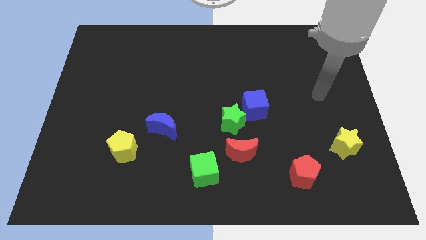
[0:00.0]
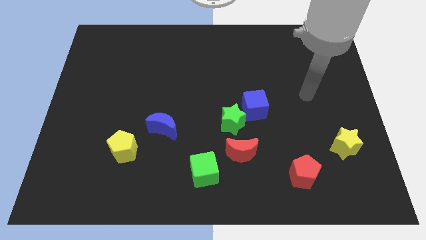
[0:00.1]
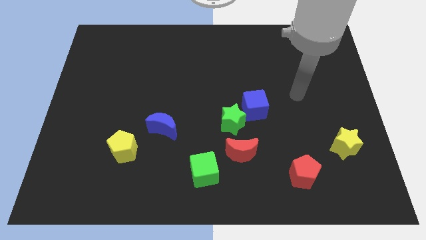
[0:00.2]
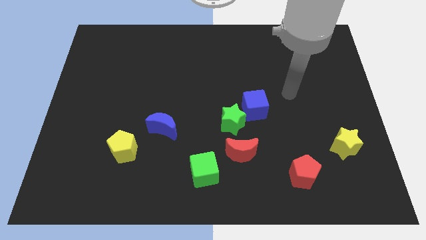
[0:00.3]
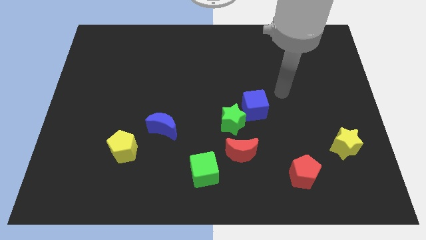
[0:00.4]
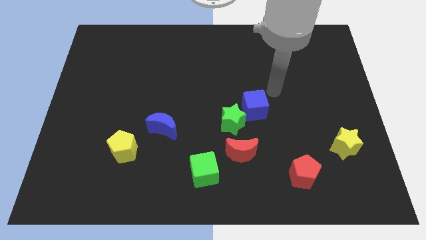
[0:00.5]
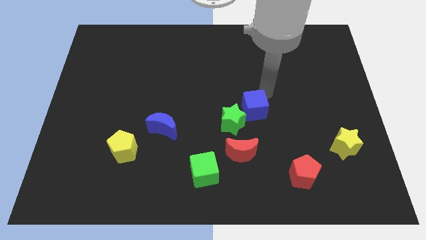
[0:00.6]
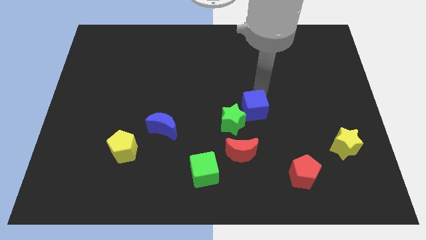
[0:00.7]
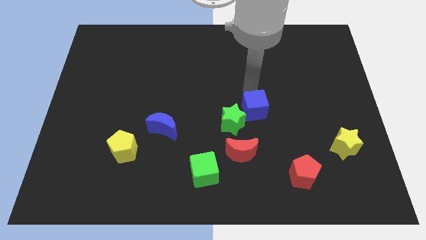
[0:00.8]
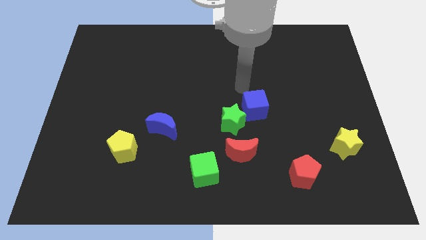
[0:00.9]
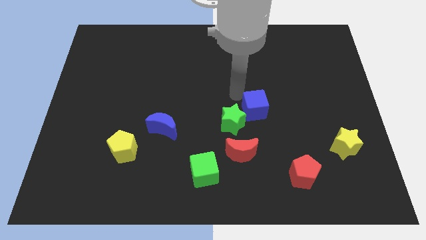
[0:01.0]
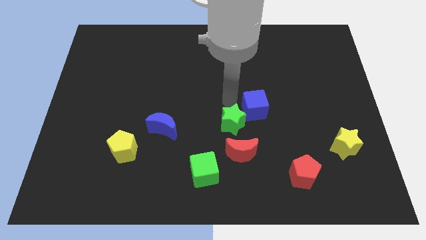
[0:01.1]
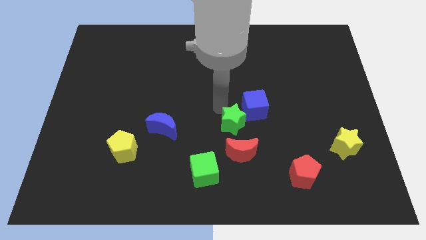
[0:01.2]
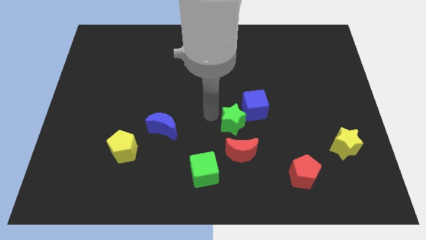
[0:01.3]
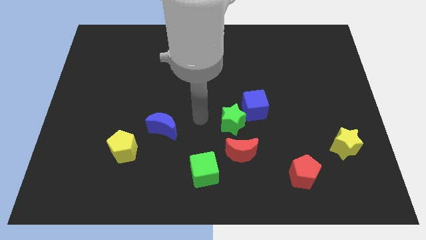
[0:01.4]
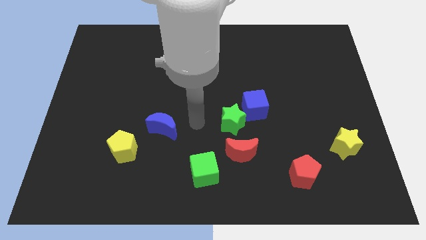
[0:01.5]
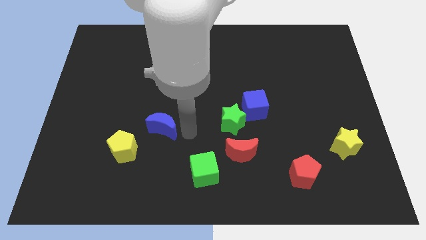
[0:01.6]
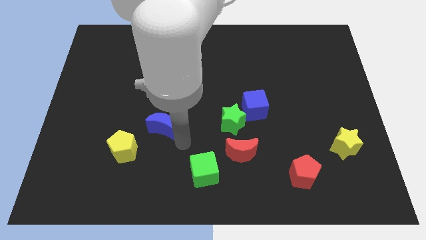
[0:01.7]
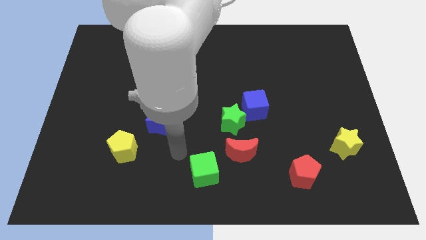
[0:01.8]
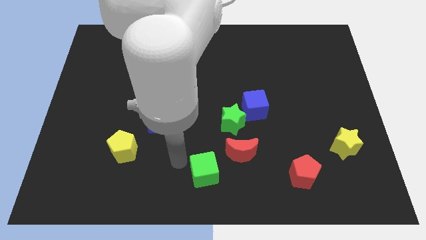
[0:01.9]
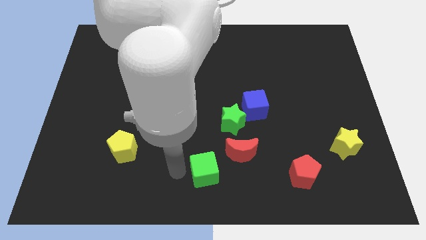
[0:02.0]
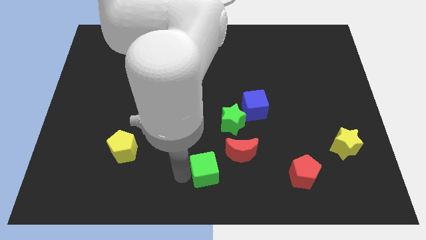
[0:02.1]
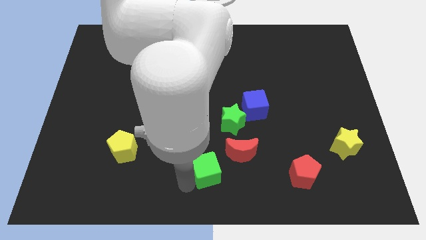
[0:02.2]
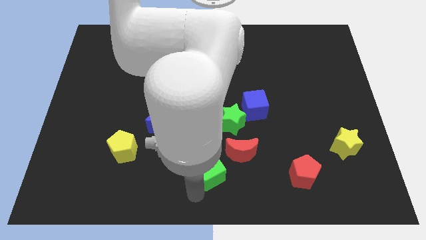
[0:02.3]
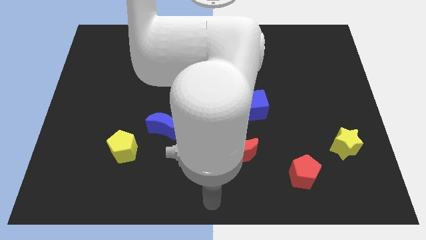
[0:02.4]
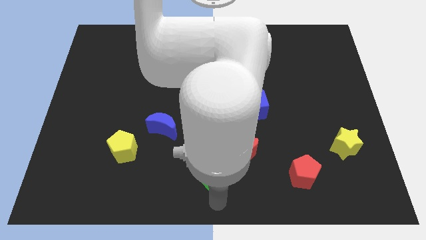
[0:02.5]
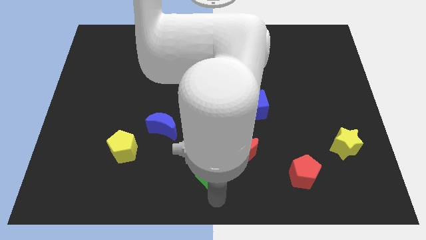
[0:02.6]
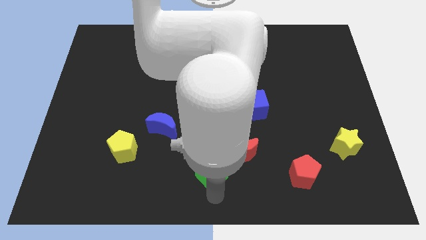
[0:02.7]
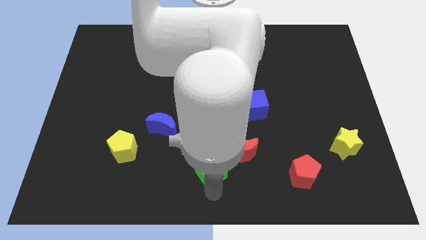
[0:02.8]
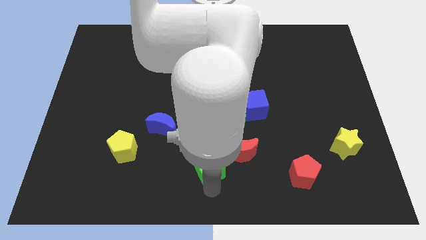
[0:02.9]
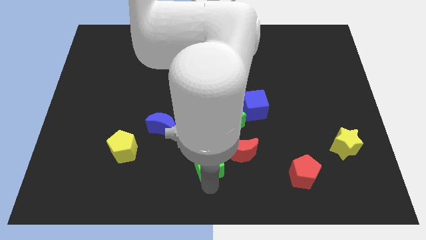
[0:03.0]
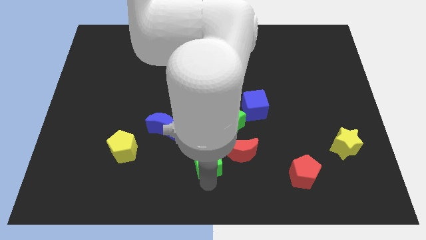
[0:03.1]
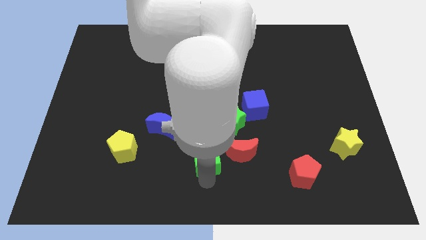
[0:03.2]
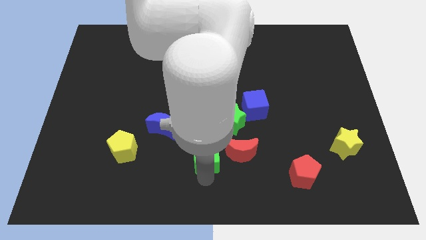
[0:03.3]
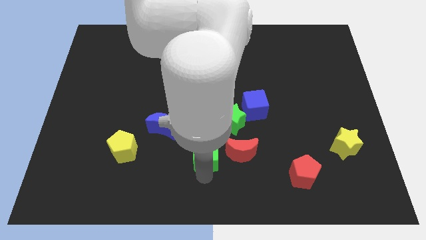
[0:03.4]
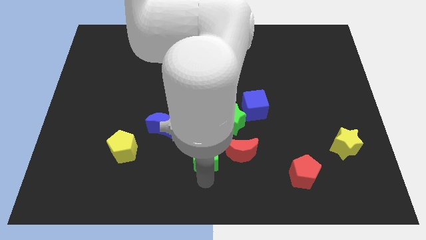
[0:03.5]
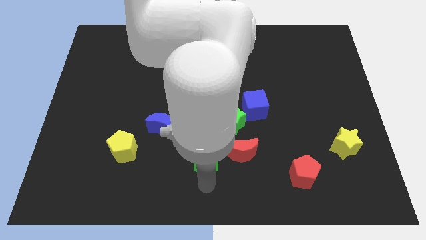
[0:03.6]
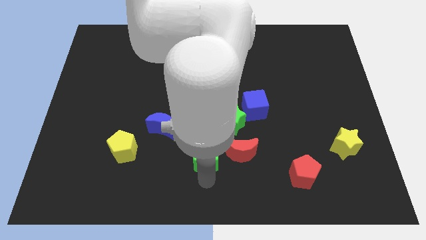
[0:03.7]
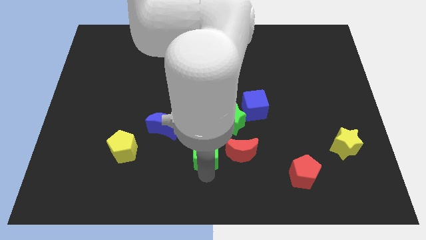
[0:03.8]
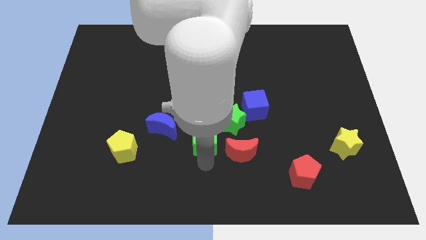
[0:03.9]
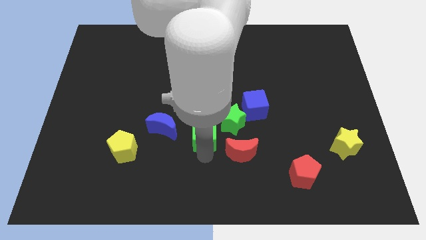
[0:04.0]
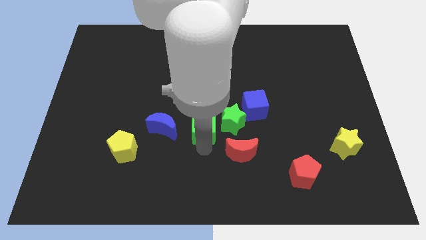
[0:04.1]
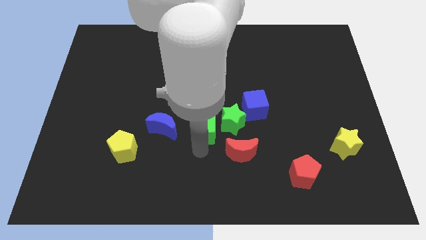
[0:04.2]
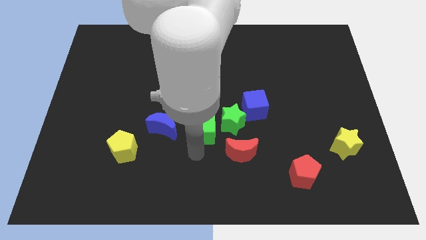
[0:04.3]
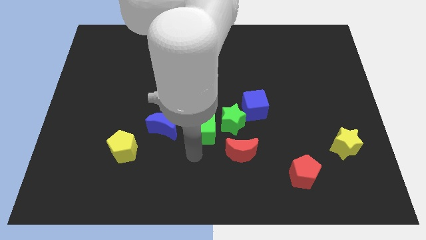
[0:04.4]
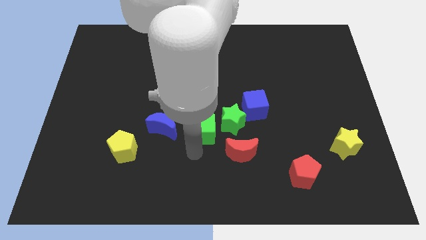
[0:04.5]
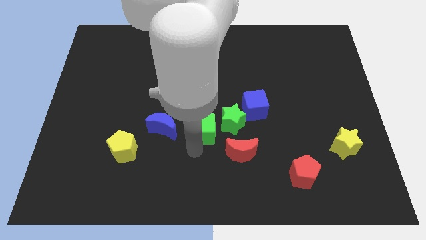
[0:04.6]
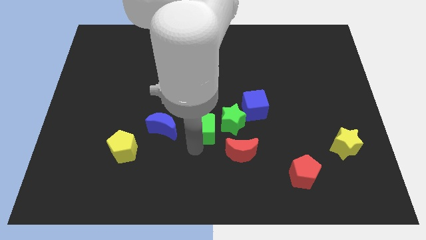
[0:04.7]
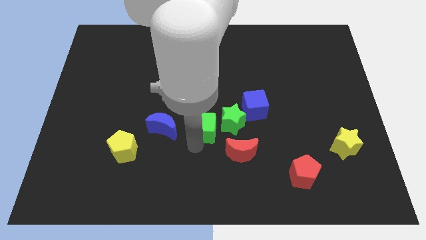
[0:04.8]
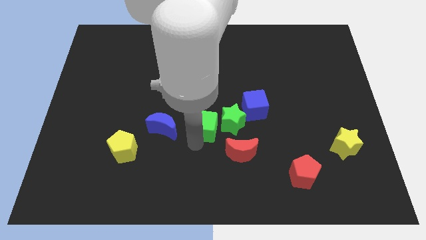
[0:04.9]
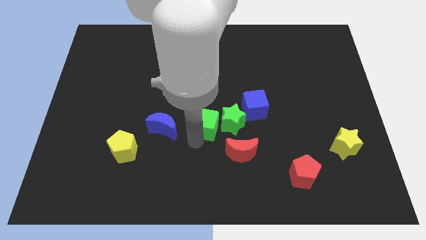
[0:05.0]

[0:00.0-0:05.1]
push the green cube diagonally up and to the left of the green star

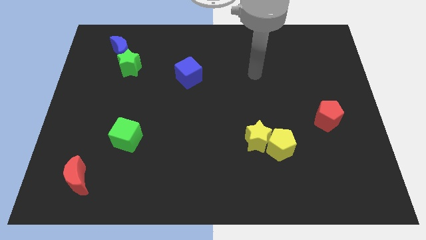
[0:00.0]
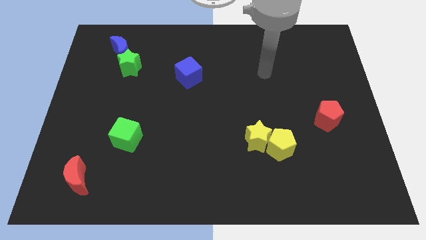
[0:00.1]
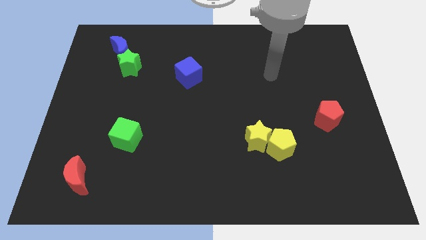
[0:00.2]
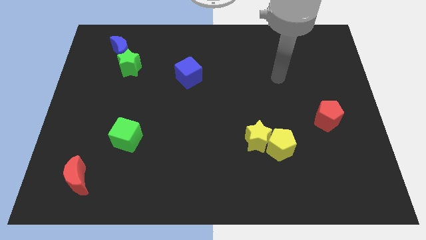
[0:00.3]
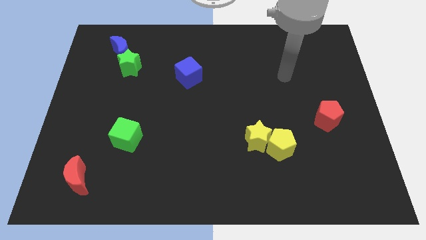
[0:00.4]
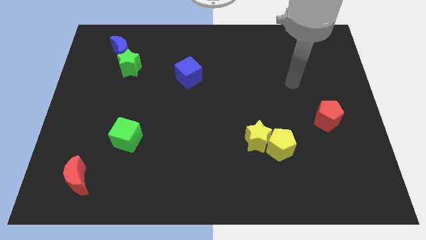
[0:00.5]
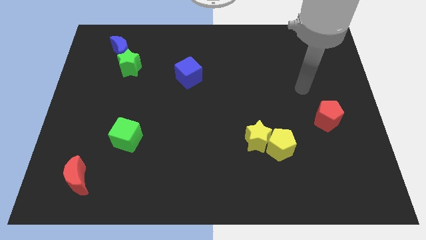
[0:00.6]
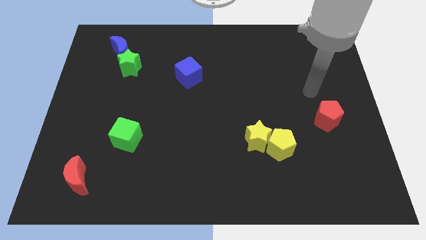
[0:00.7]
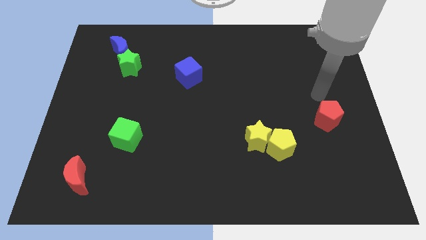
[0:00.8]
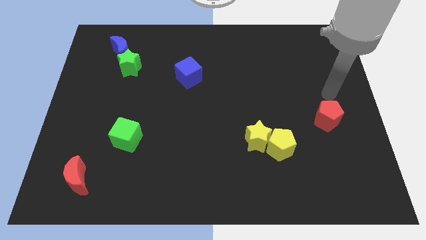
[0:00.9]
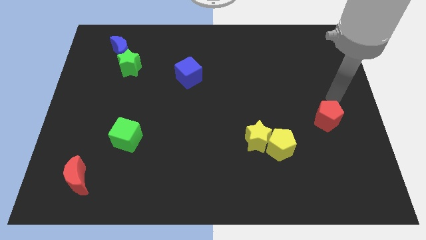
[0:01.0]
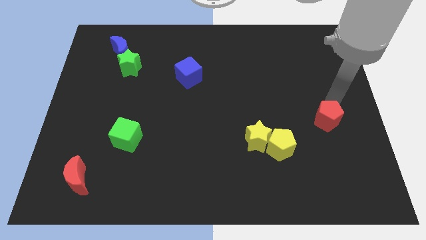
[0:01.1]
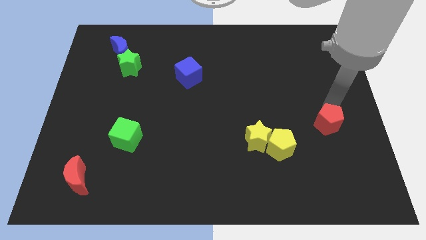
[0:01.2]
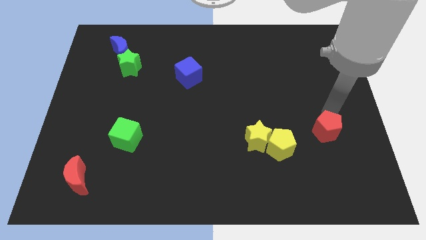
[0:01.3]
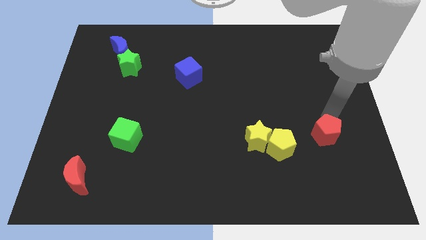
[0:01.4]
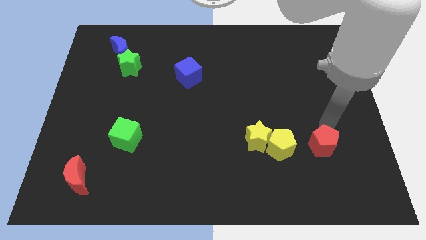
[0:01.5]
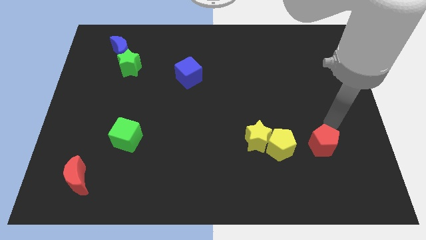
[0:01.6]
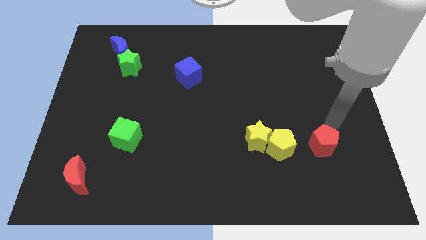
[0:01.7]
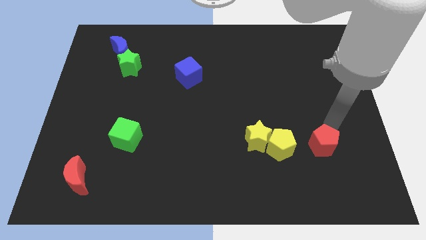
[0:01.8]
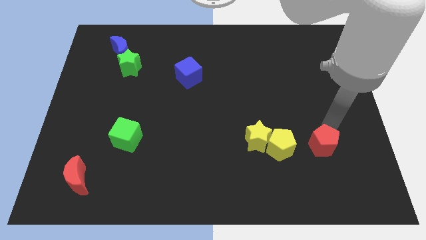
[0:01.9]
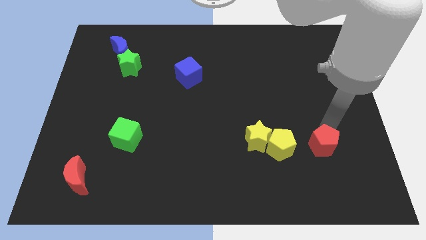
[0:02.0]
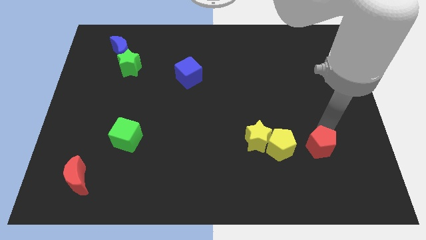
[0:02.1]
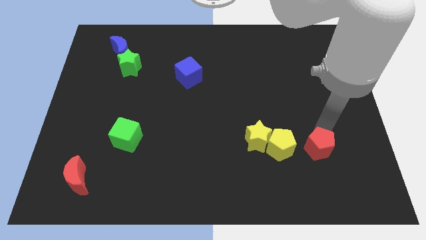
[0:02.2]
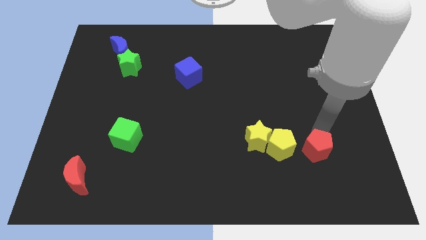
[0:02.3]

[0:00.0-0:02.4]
move the red pentagon diagonally down and to the right of the yellow pentagon
